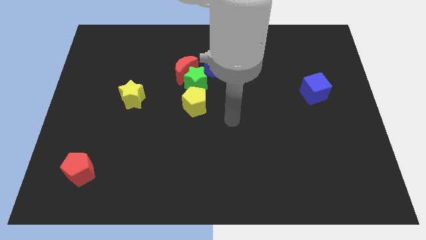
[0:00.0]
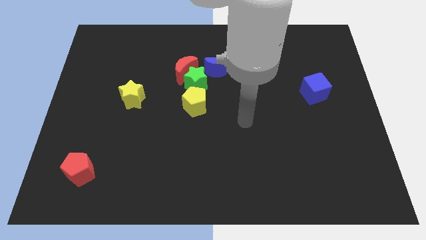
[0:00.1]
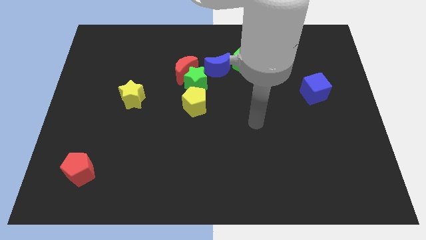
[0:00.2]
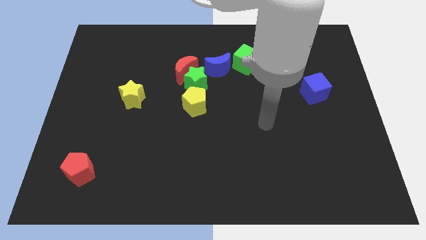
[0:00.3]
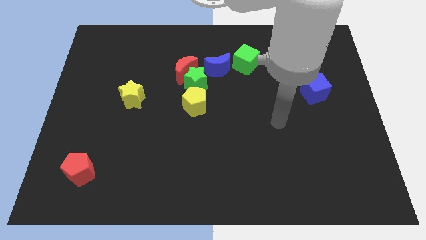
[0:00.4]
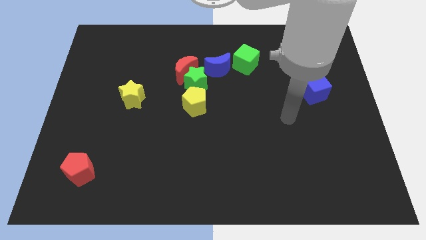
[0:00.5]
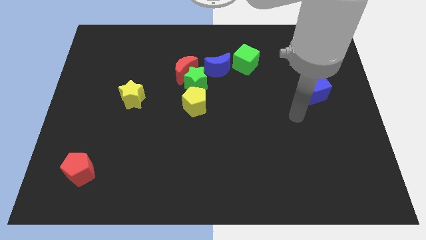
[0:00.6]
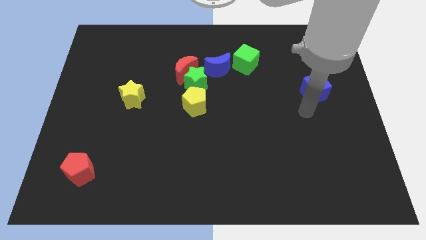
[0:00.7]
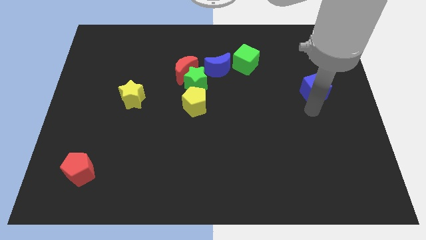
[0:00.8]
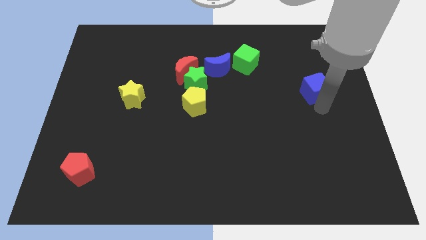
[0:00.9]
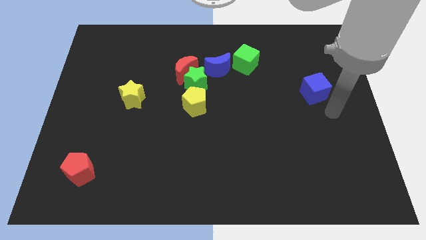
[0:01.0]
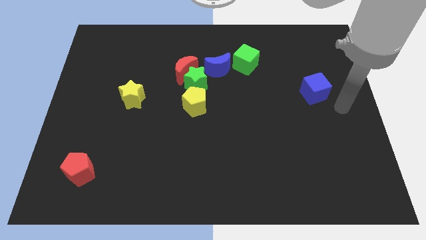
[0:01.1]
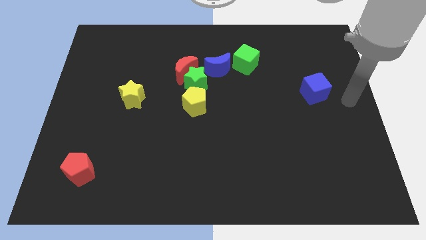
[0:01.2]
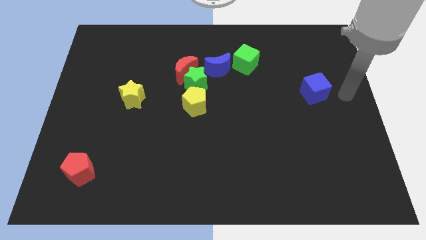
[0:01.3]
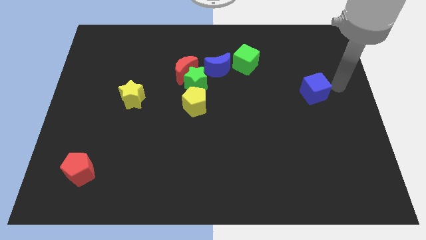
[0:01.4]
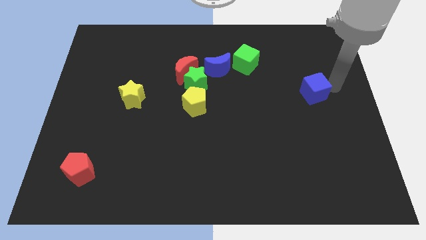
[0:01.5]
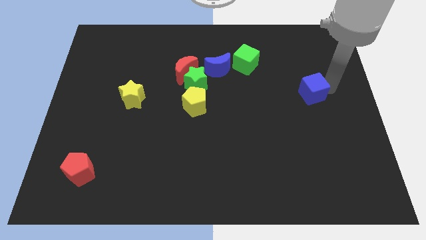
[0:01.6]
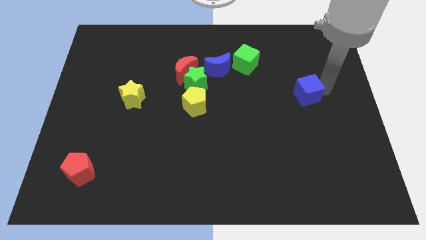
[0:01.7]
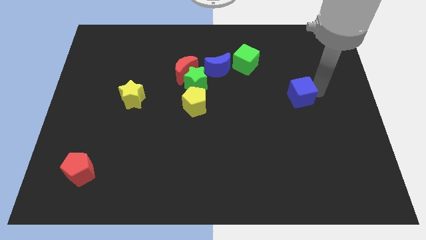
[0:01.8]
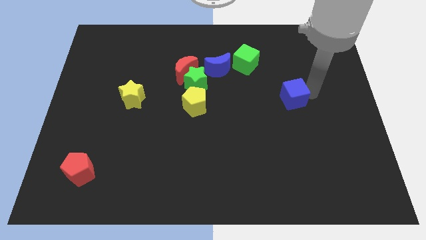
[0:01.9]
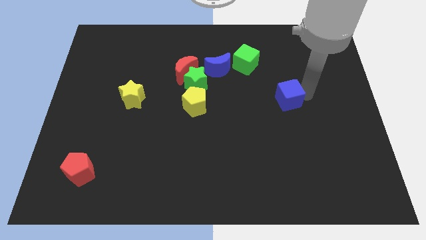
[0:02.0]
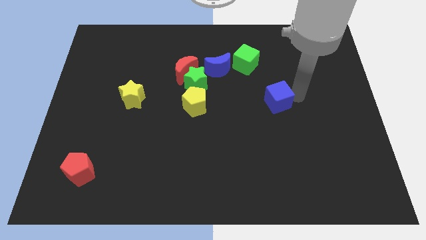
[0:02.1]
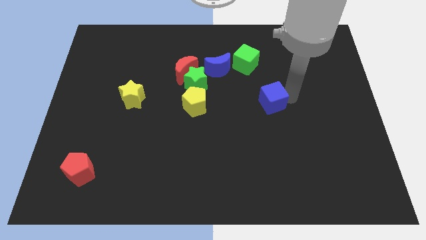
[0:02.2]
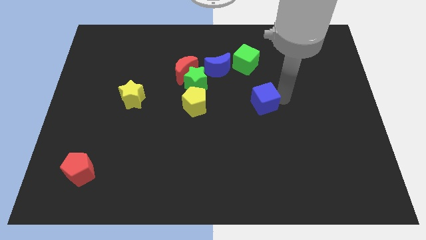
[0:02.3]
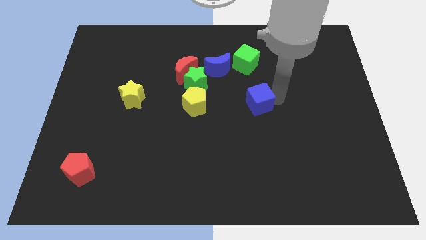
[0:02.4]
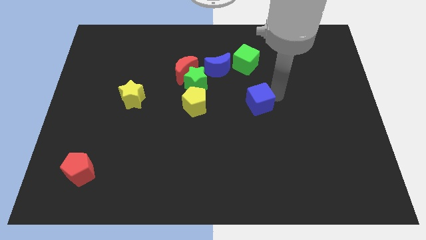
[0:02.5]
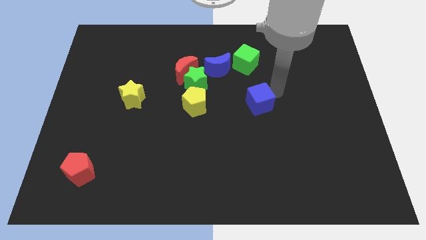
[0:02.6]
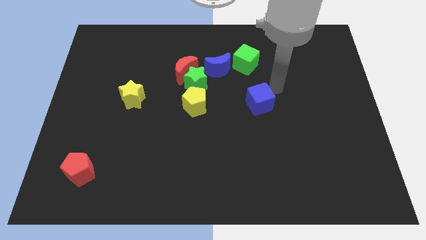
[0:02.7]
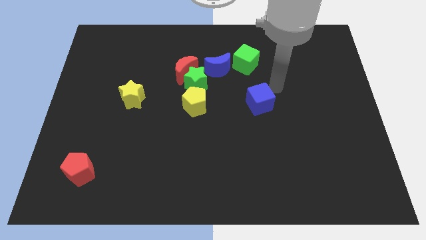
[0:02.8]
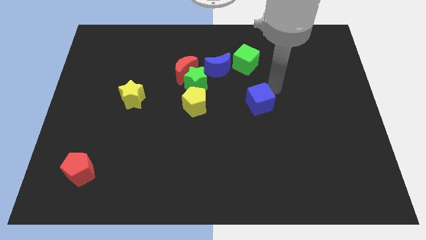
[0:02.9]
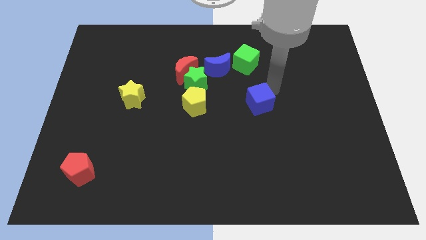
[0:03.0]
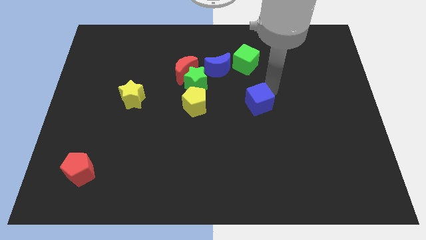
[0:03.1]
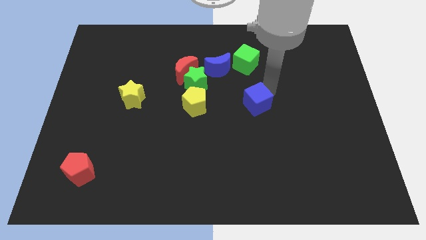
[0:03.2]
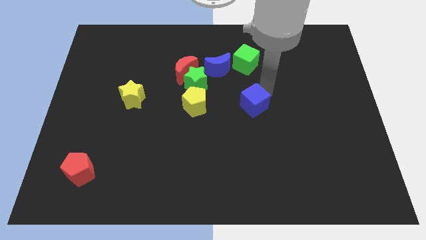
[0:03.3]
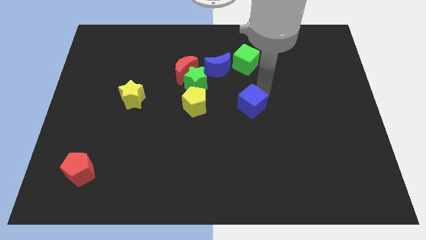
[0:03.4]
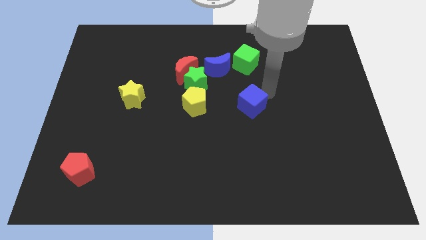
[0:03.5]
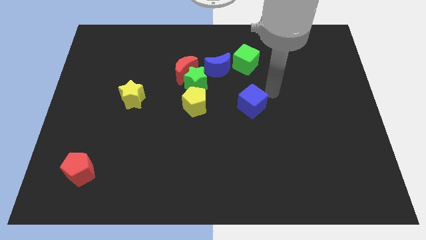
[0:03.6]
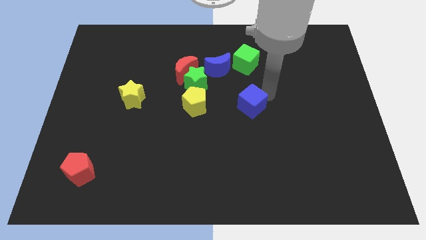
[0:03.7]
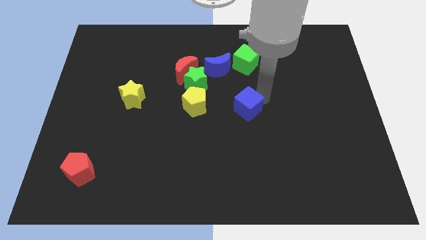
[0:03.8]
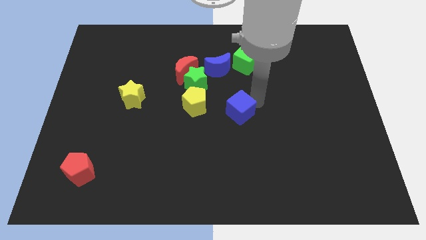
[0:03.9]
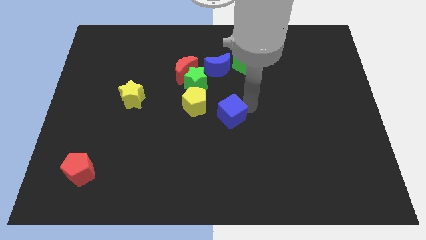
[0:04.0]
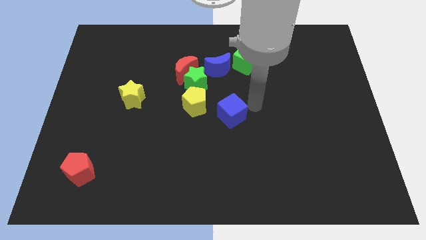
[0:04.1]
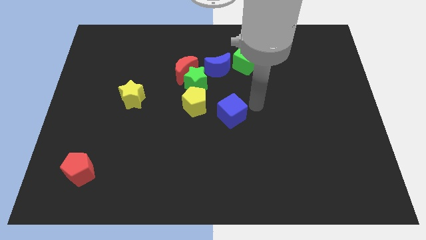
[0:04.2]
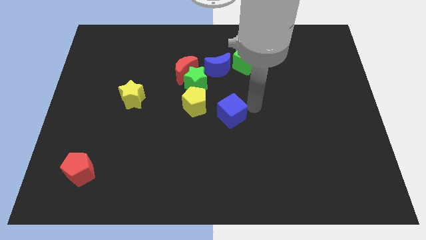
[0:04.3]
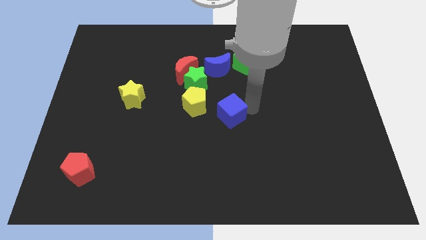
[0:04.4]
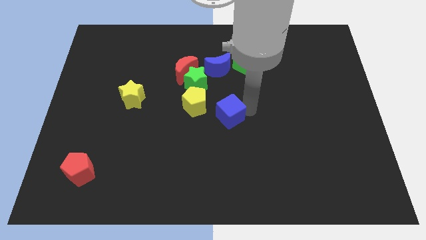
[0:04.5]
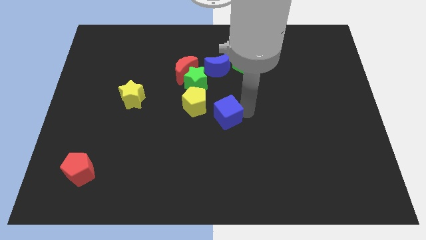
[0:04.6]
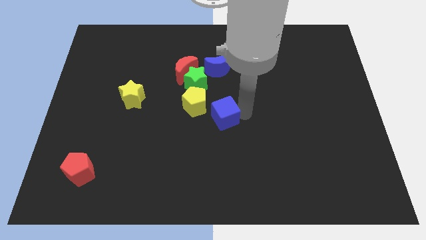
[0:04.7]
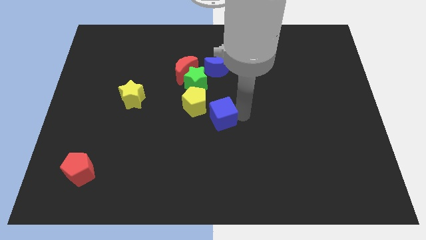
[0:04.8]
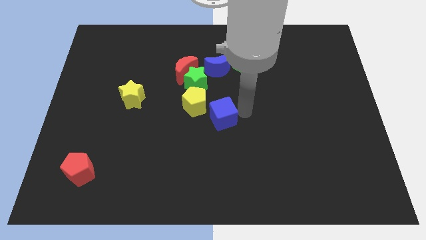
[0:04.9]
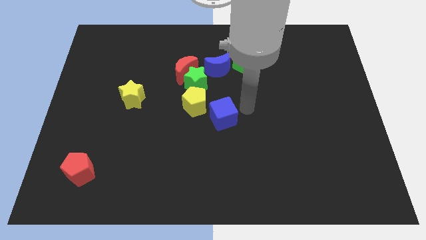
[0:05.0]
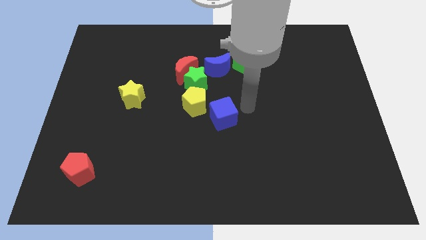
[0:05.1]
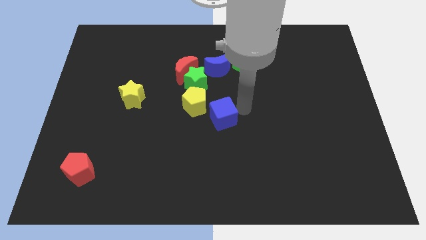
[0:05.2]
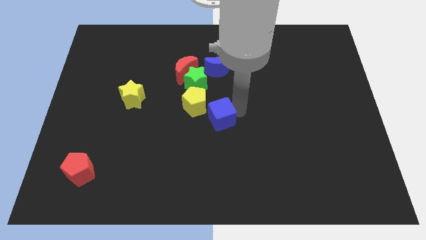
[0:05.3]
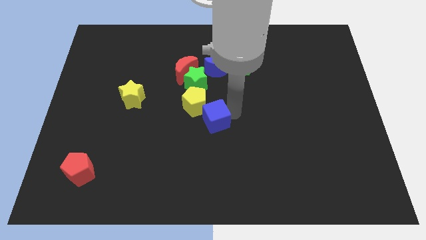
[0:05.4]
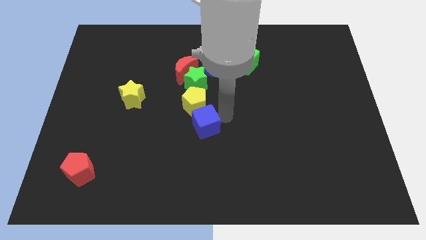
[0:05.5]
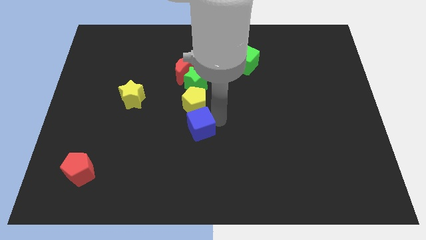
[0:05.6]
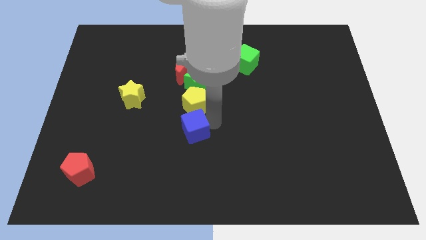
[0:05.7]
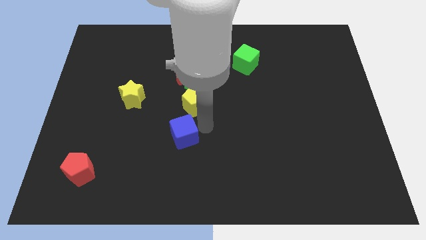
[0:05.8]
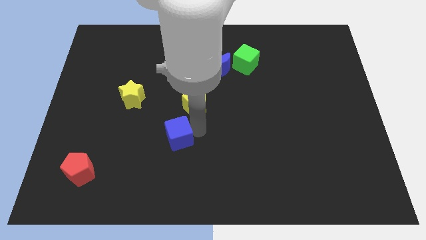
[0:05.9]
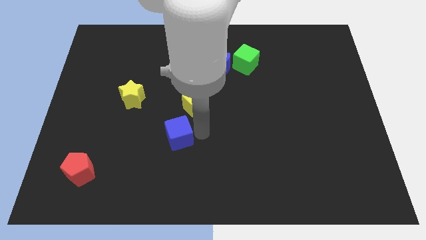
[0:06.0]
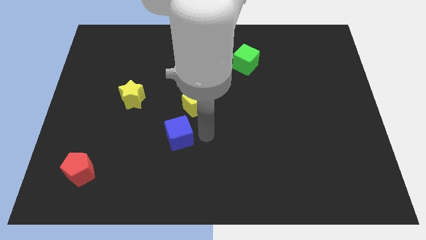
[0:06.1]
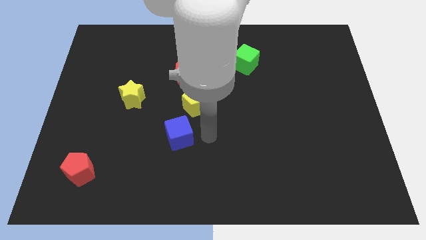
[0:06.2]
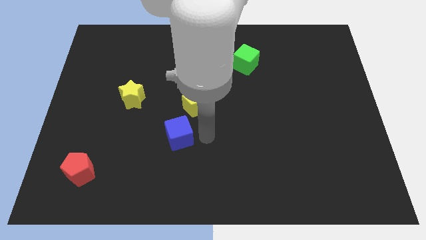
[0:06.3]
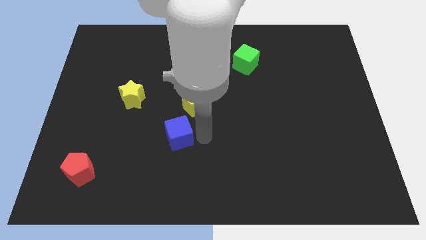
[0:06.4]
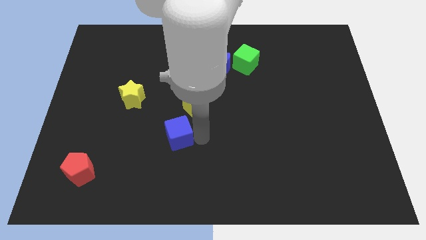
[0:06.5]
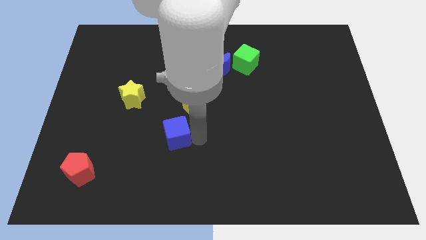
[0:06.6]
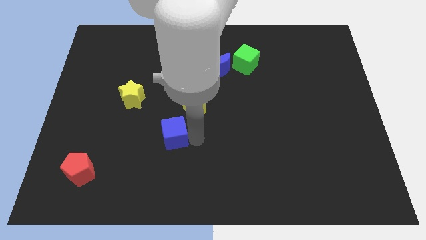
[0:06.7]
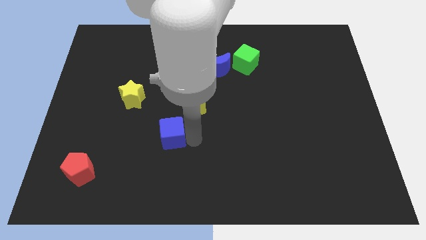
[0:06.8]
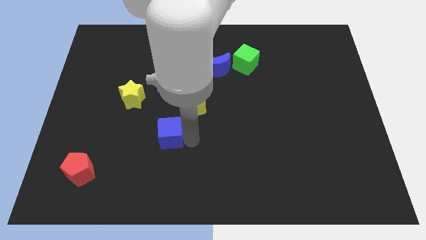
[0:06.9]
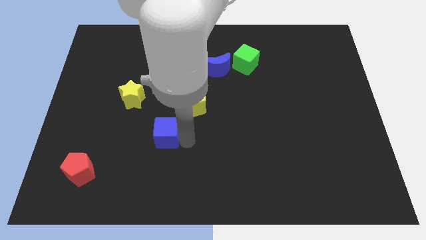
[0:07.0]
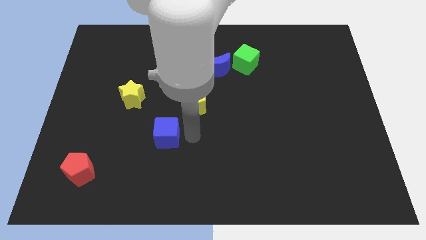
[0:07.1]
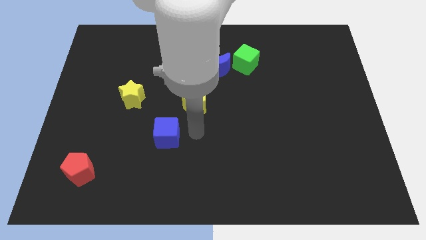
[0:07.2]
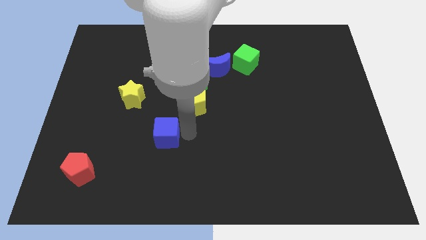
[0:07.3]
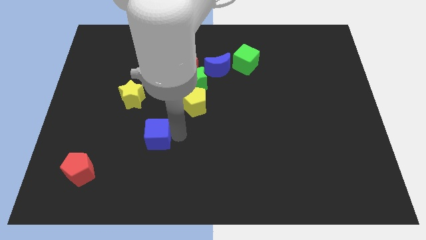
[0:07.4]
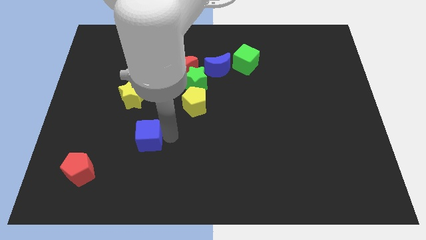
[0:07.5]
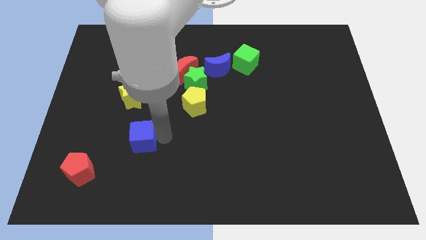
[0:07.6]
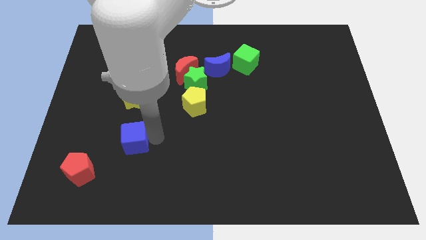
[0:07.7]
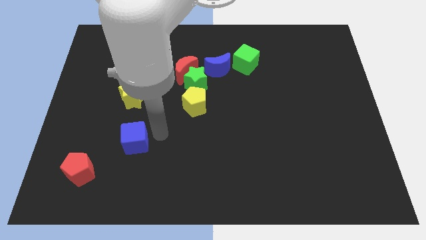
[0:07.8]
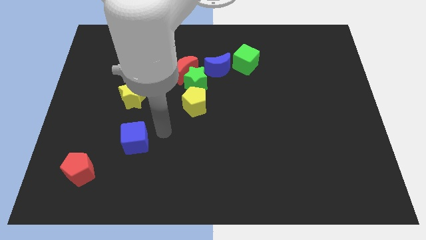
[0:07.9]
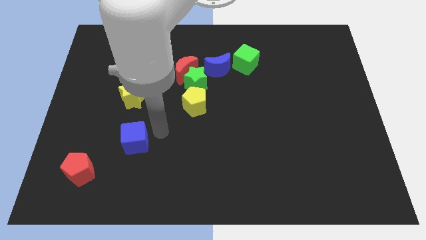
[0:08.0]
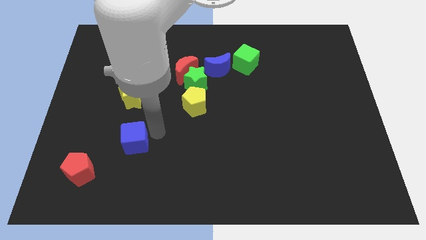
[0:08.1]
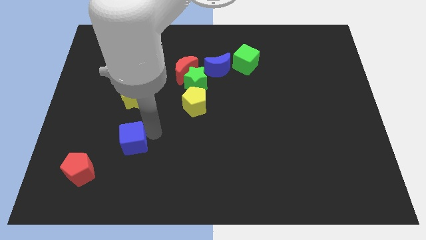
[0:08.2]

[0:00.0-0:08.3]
put the blue cube to the top right of the red pentagon
